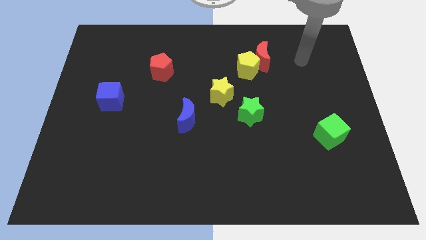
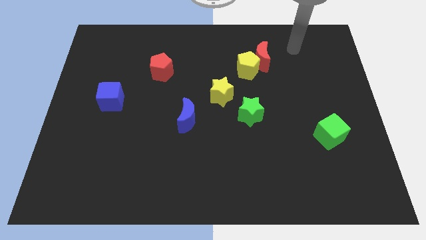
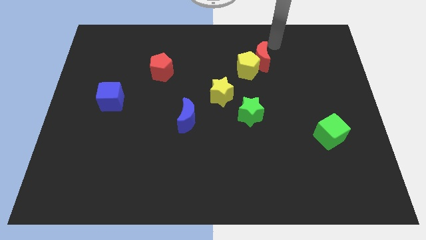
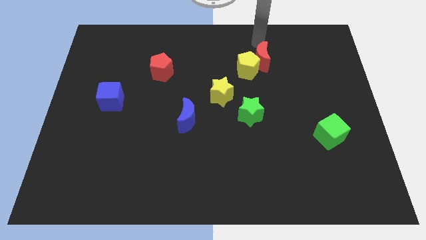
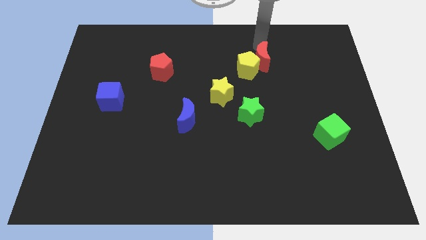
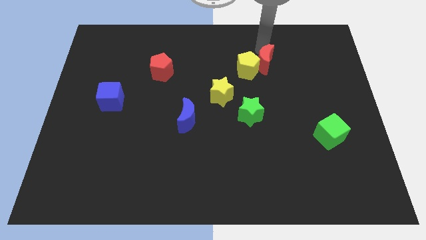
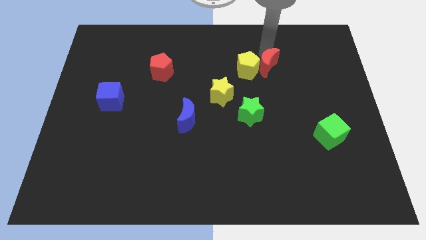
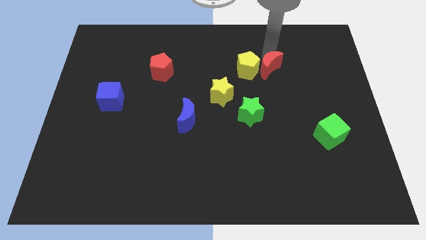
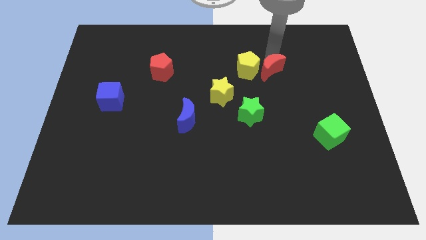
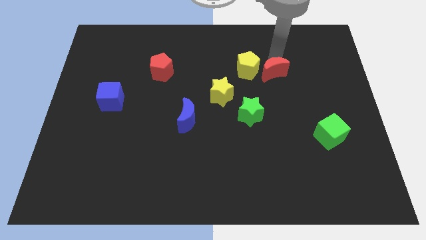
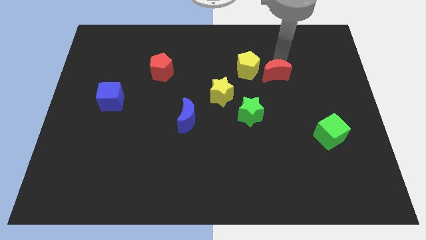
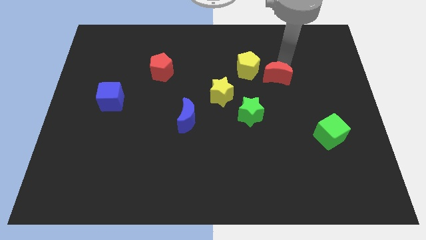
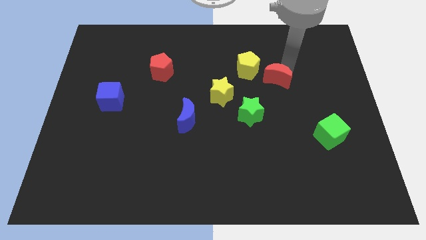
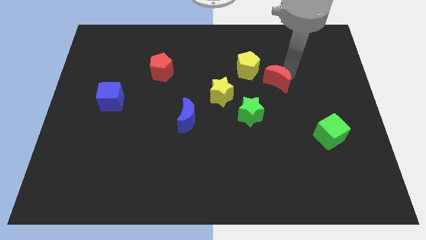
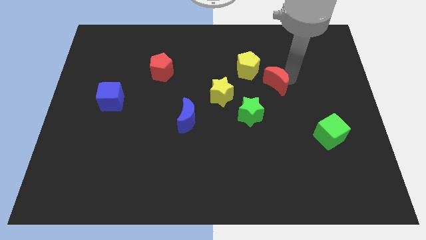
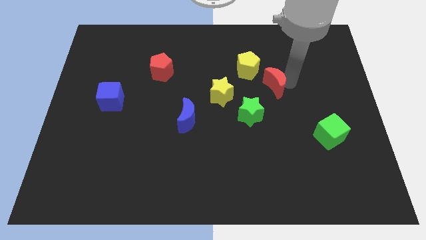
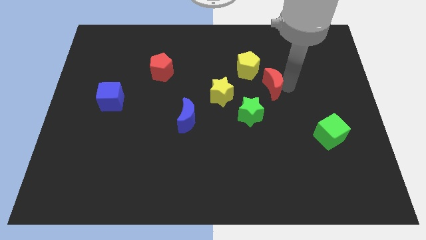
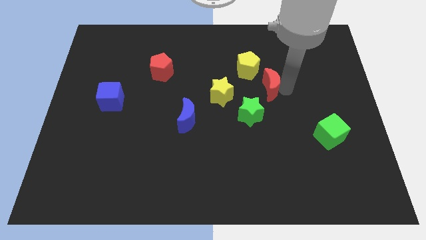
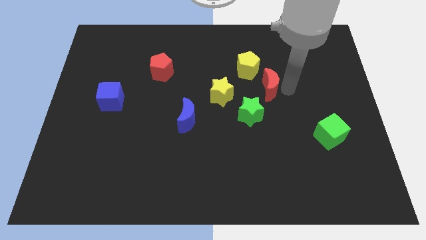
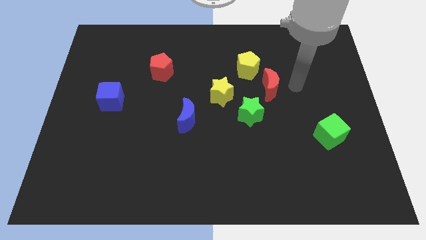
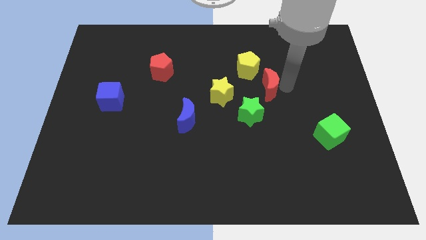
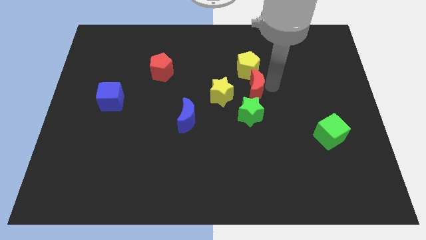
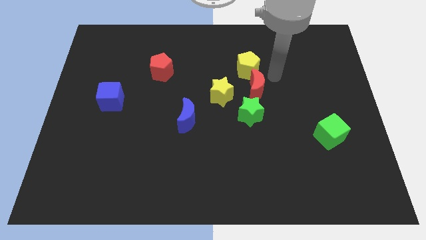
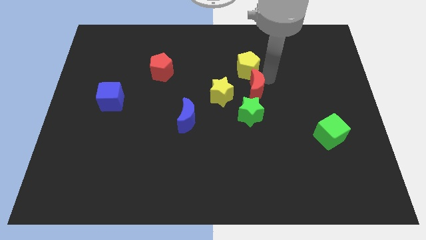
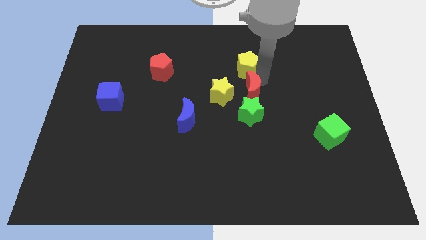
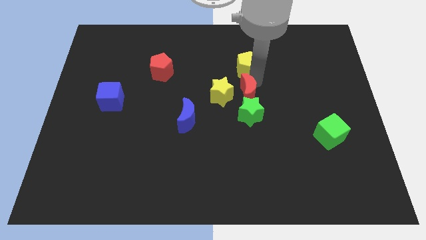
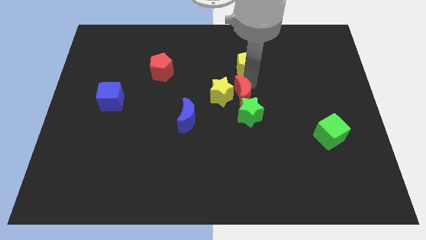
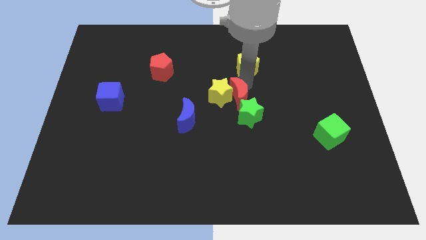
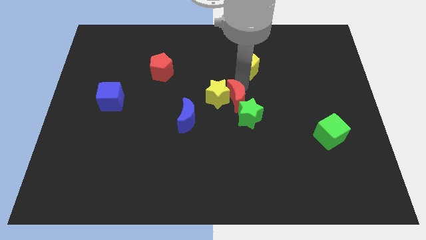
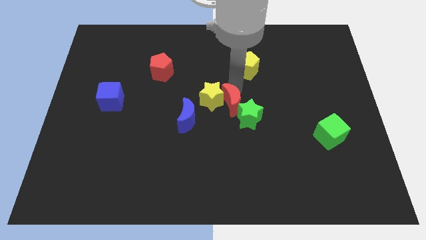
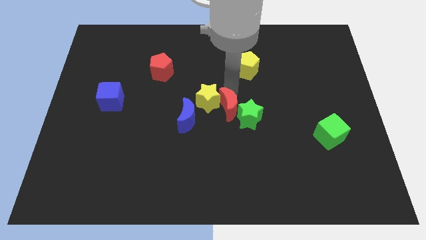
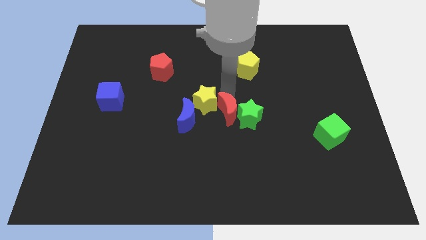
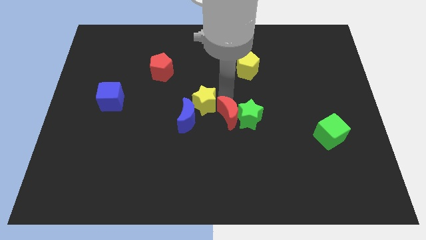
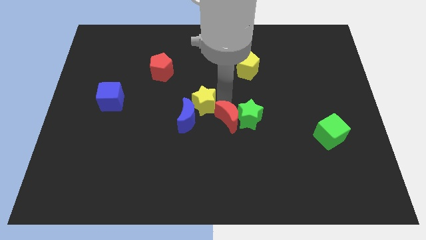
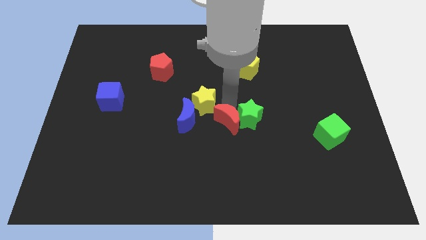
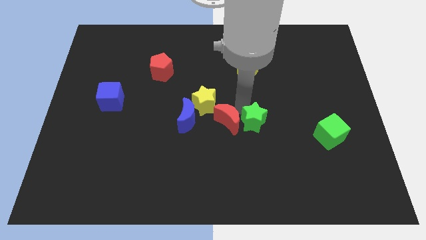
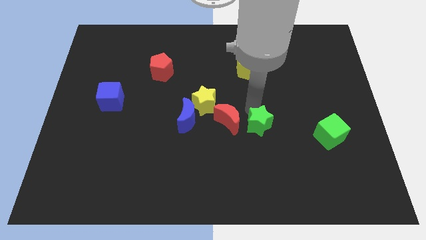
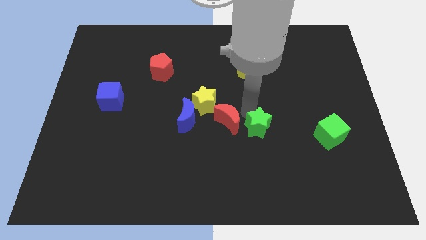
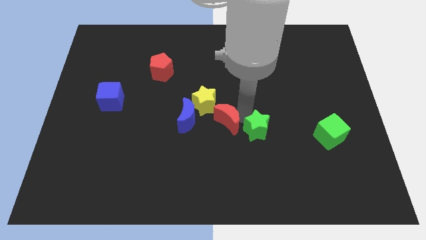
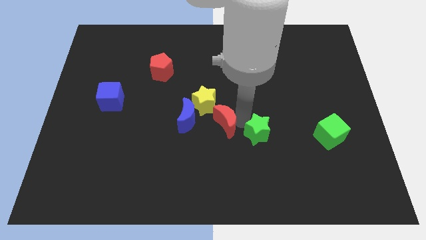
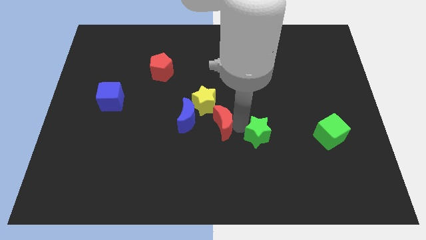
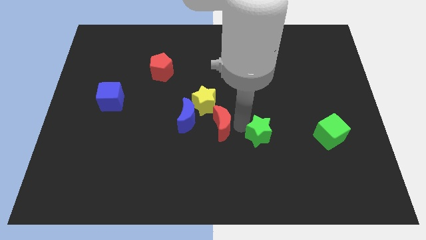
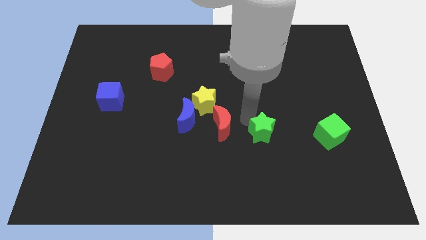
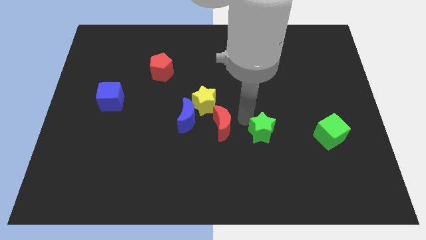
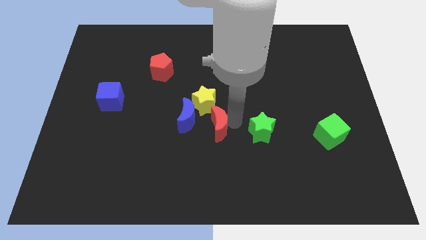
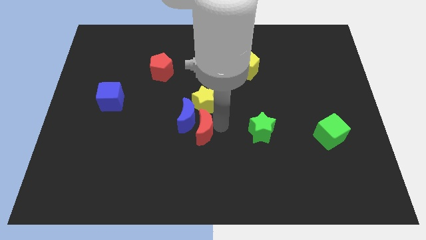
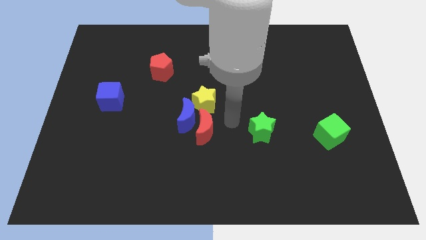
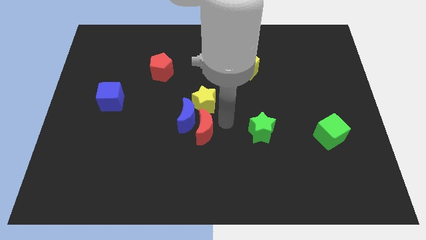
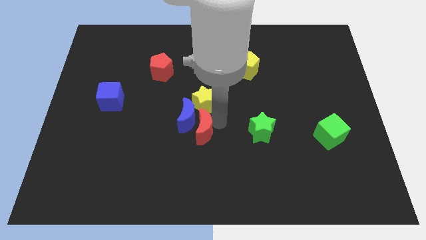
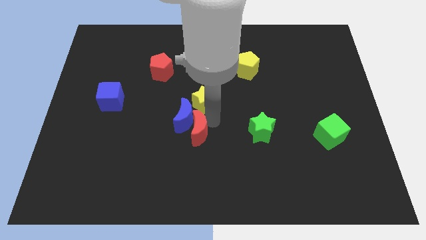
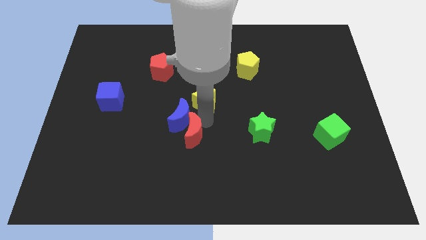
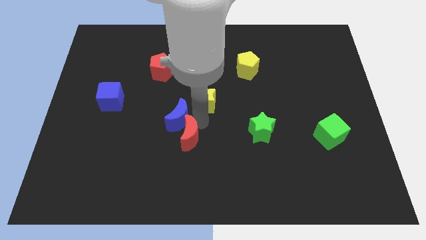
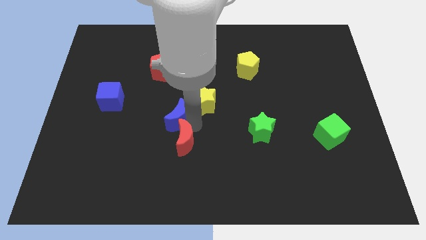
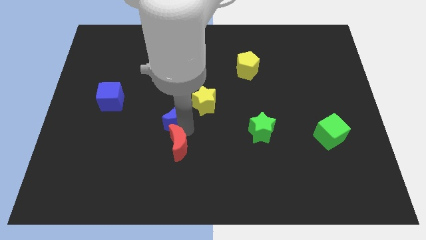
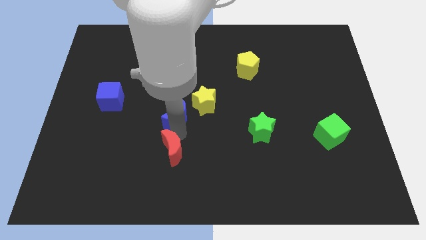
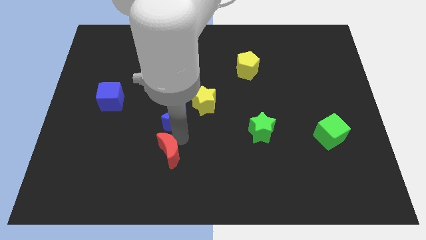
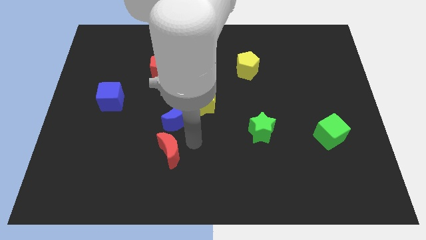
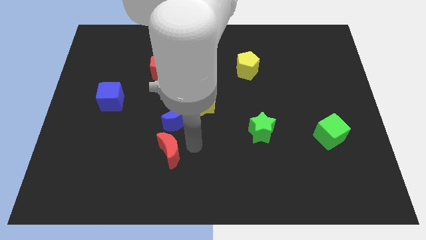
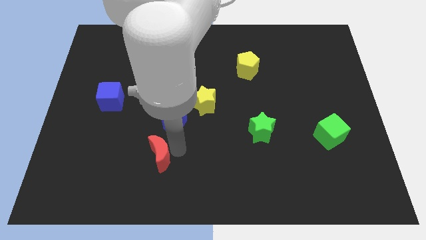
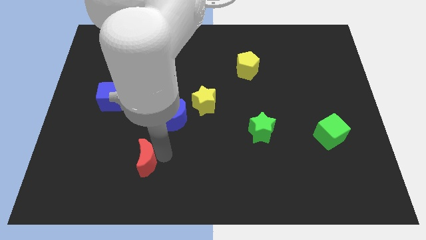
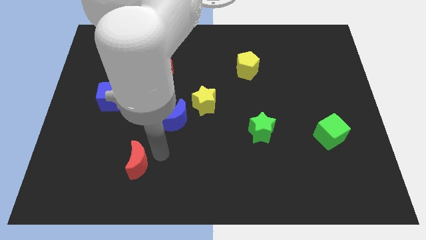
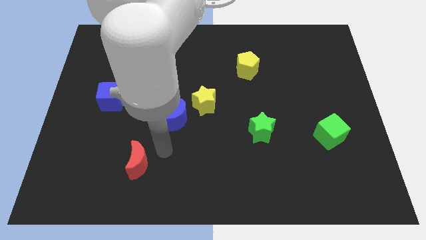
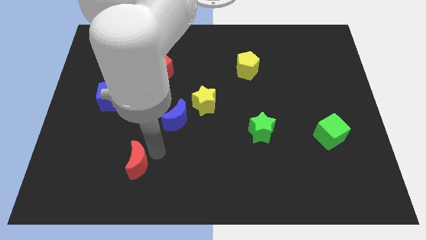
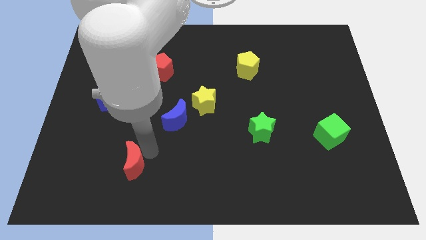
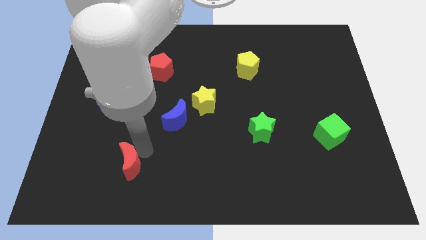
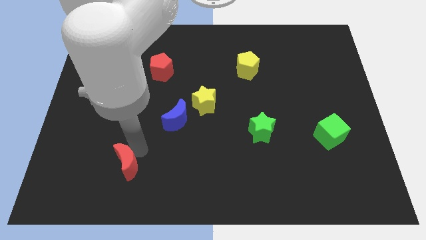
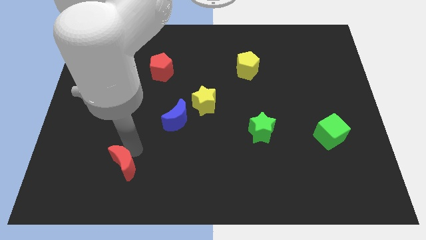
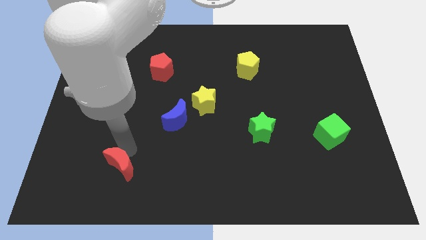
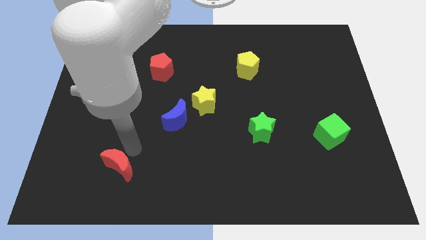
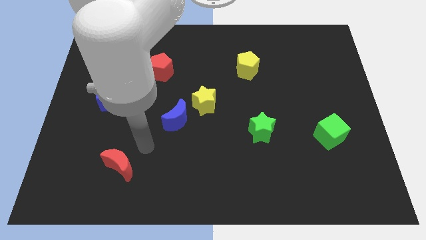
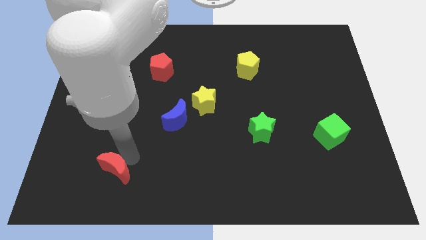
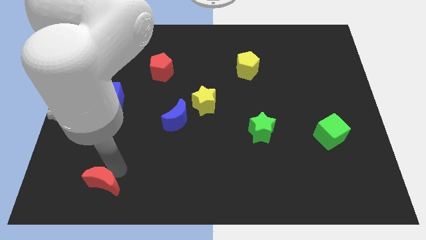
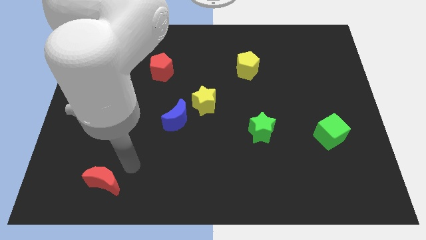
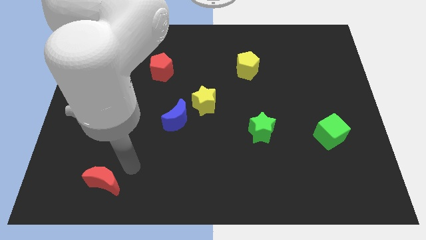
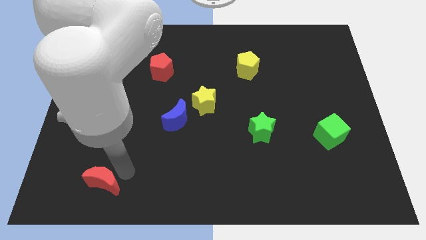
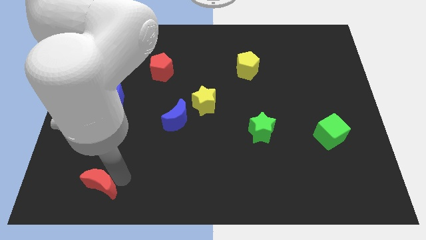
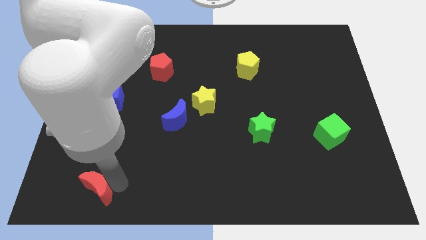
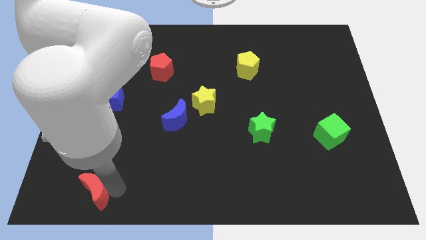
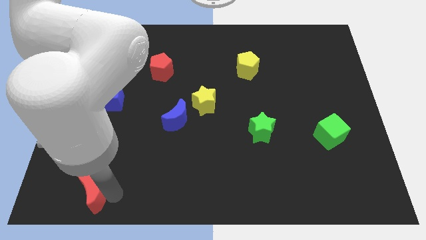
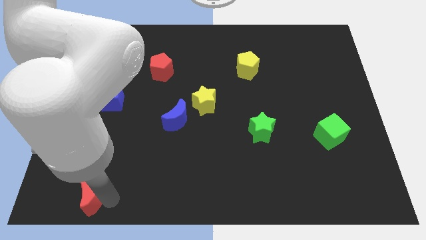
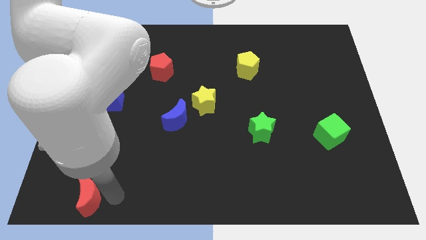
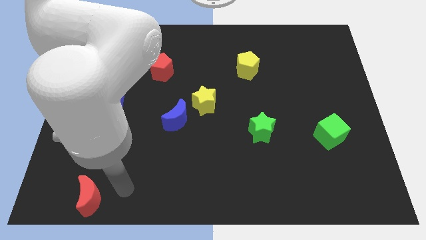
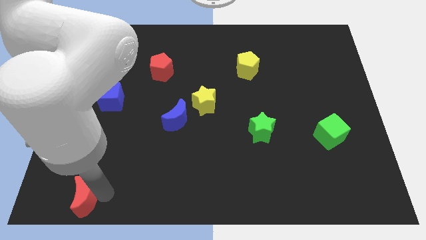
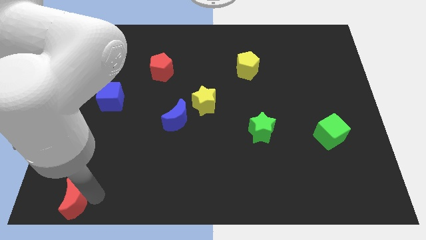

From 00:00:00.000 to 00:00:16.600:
put the red moon to the bottom left corner
